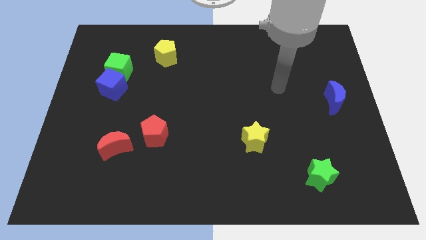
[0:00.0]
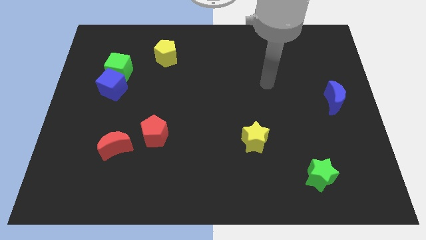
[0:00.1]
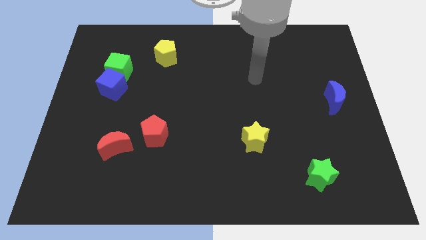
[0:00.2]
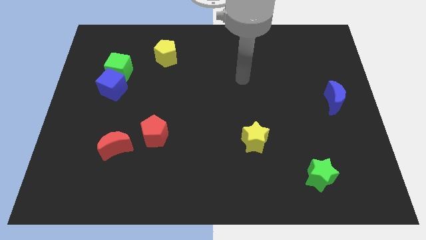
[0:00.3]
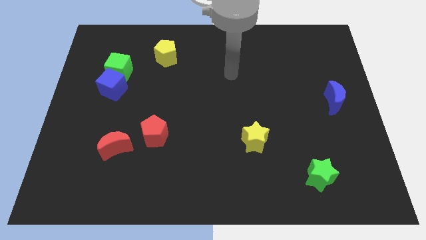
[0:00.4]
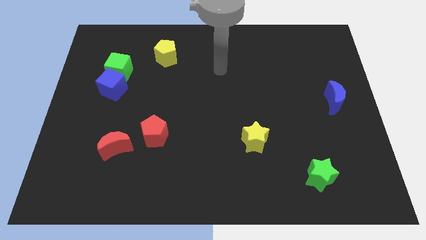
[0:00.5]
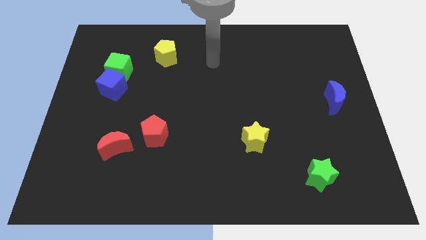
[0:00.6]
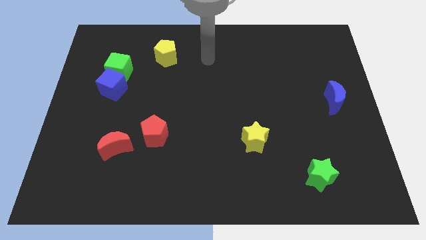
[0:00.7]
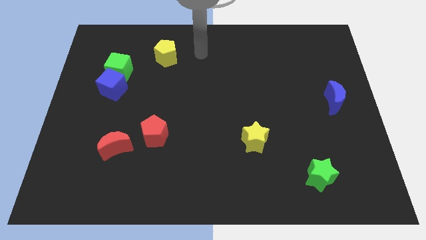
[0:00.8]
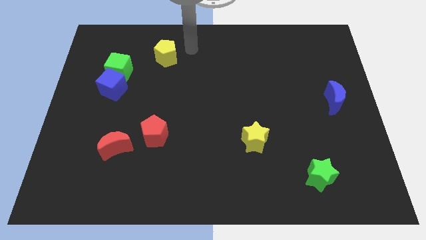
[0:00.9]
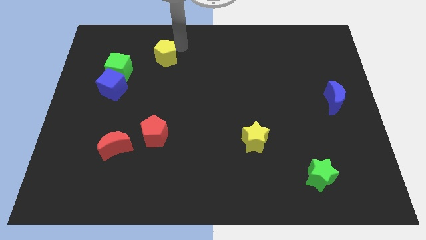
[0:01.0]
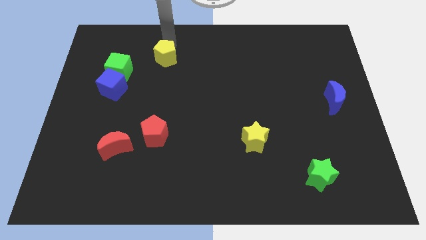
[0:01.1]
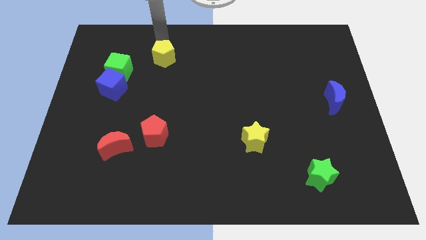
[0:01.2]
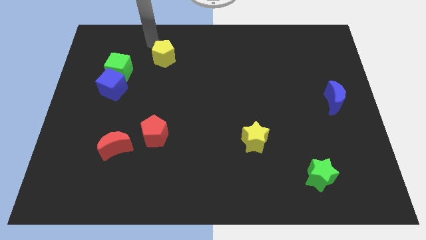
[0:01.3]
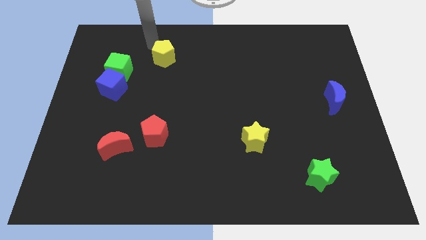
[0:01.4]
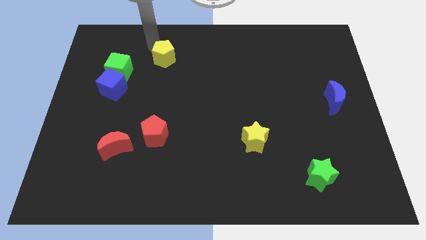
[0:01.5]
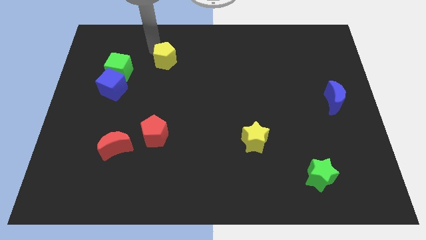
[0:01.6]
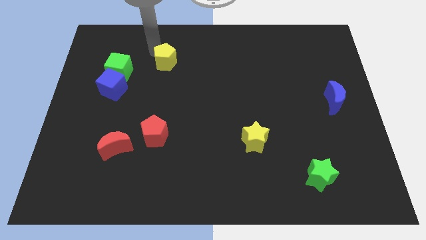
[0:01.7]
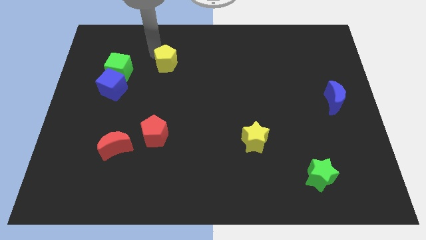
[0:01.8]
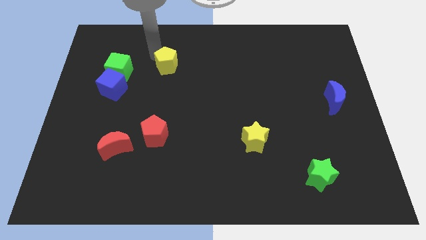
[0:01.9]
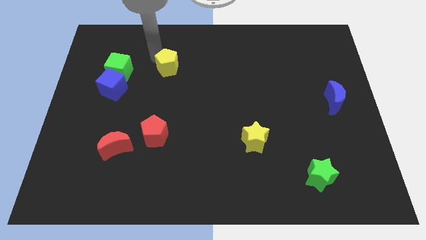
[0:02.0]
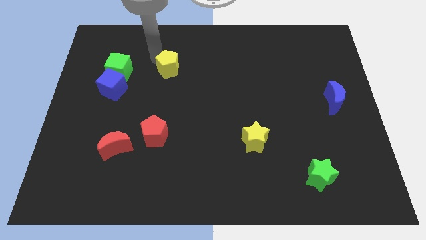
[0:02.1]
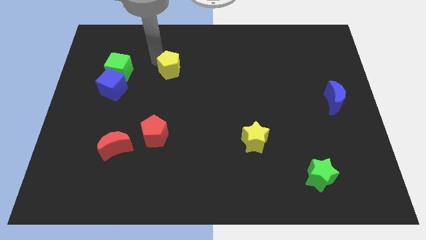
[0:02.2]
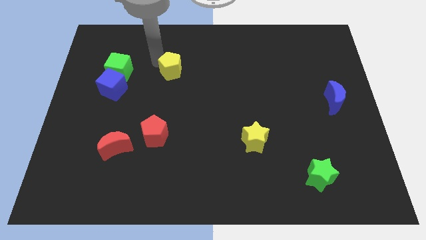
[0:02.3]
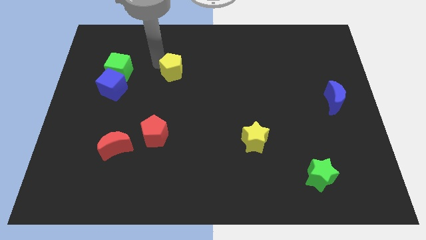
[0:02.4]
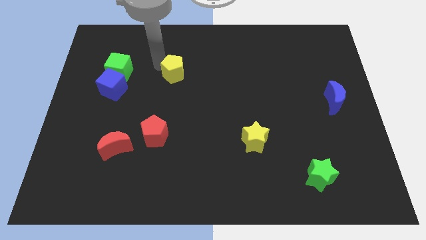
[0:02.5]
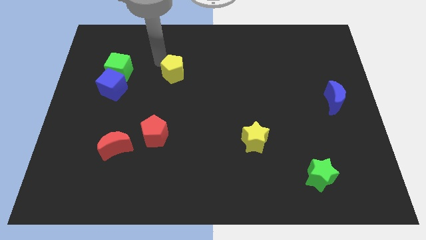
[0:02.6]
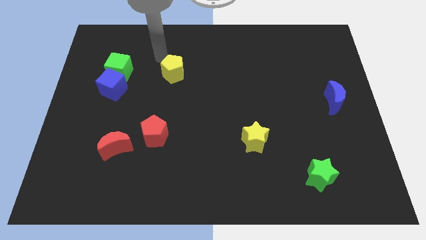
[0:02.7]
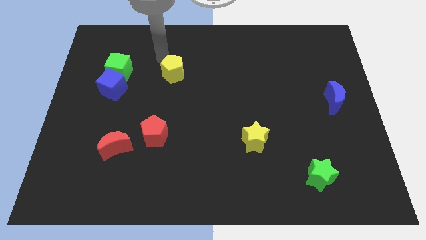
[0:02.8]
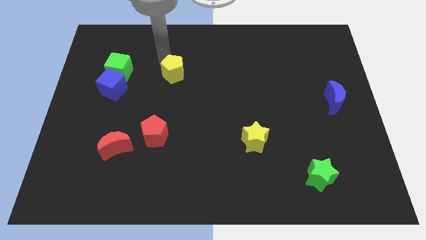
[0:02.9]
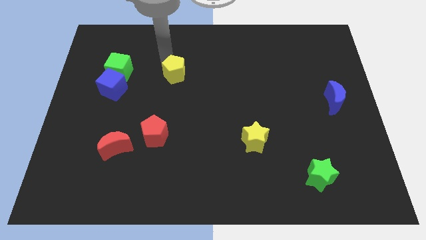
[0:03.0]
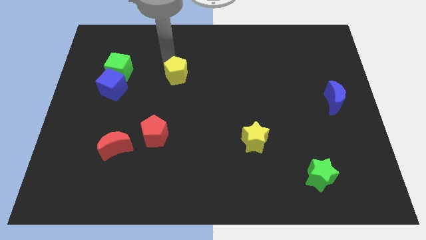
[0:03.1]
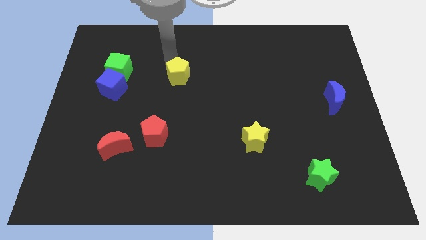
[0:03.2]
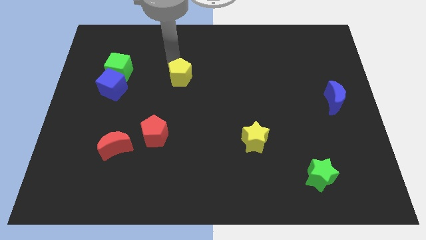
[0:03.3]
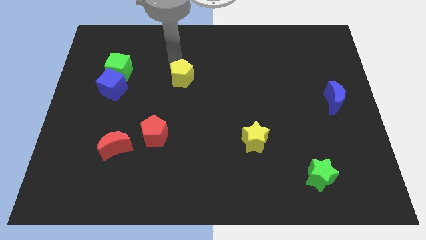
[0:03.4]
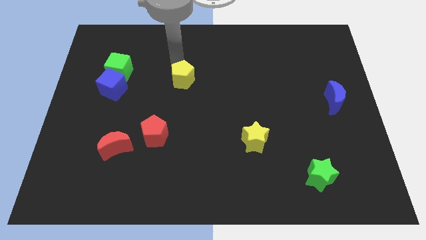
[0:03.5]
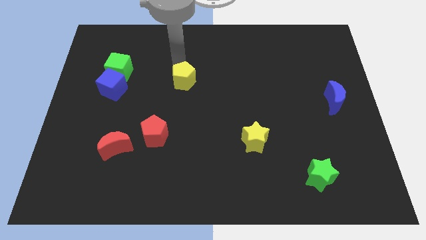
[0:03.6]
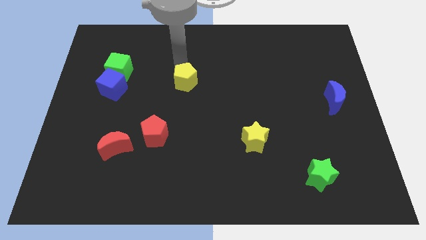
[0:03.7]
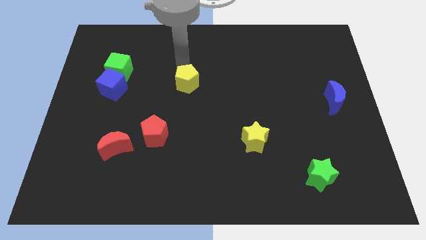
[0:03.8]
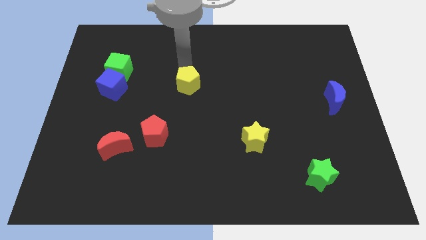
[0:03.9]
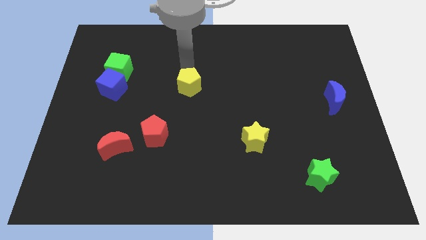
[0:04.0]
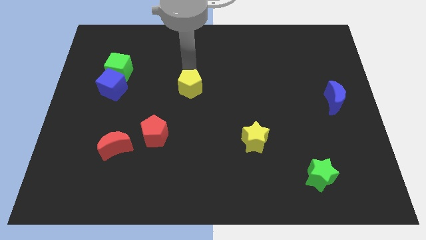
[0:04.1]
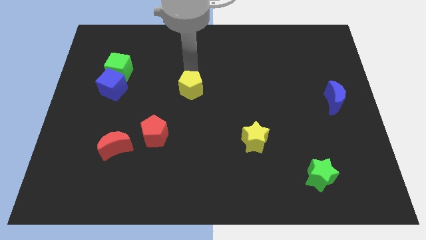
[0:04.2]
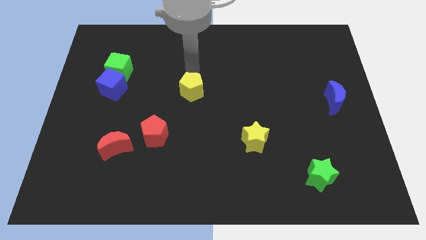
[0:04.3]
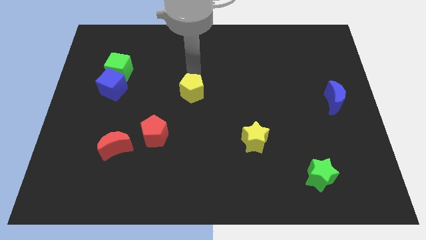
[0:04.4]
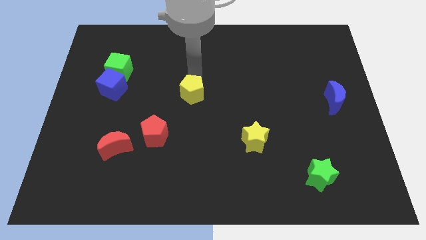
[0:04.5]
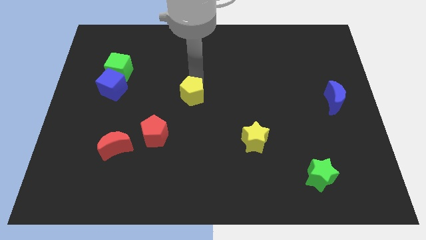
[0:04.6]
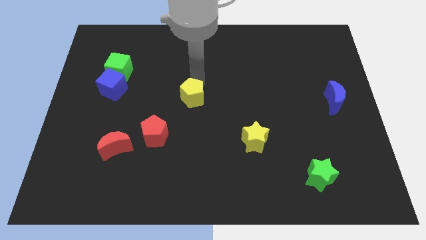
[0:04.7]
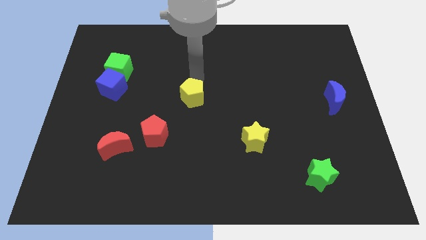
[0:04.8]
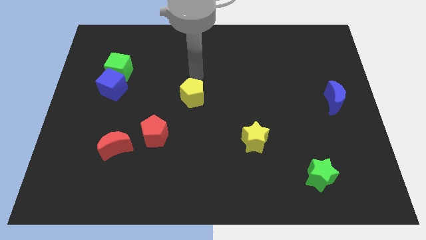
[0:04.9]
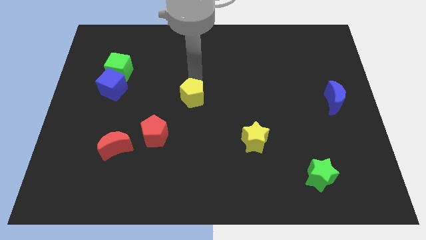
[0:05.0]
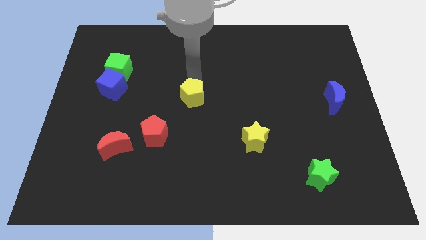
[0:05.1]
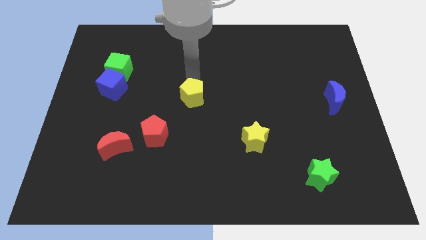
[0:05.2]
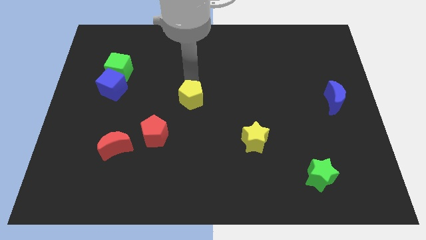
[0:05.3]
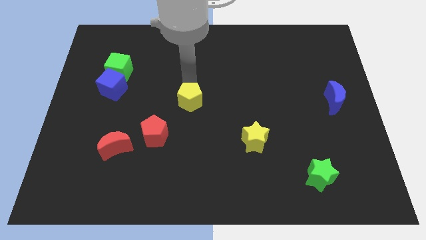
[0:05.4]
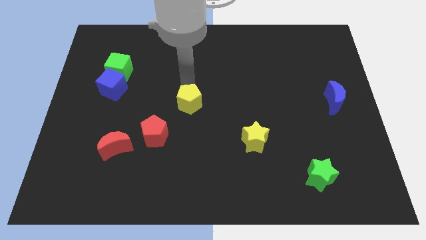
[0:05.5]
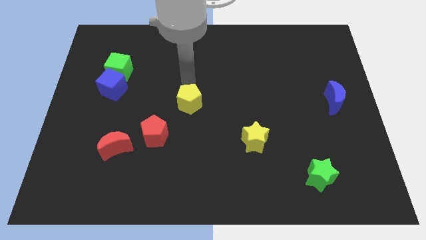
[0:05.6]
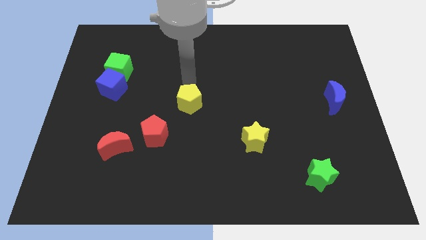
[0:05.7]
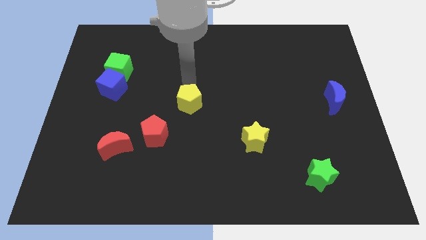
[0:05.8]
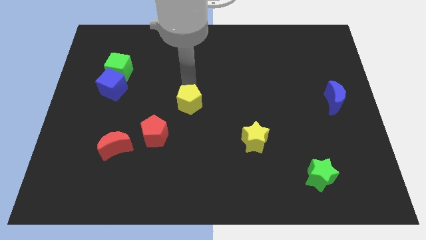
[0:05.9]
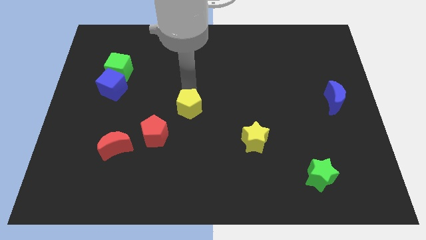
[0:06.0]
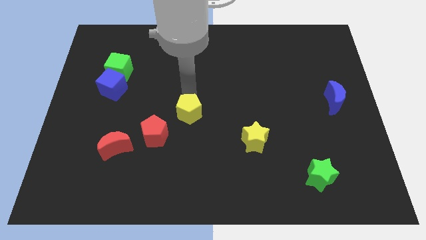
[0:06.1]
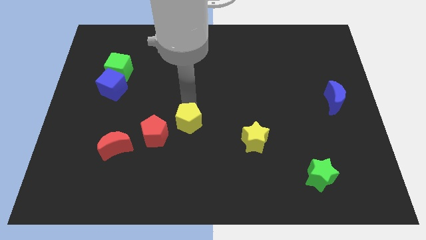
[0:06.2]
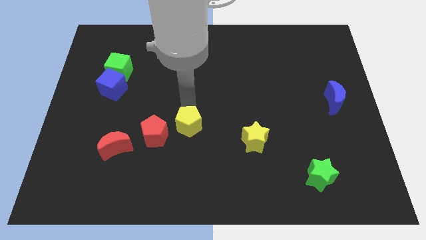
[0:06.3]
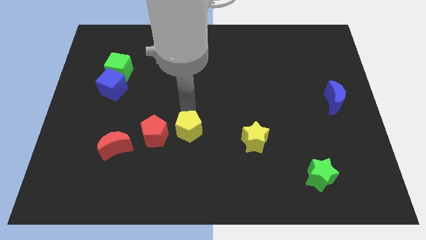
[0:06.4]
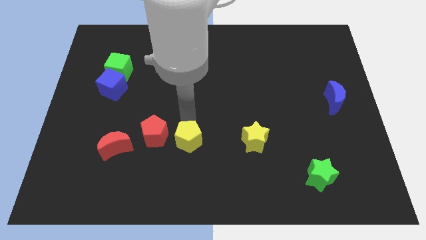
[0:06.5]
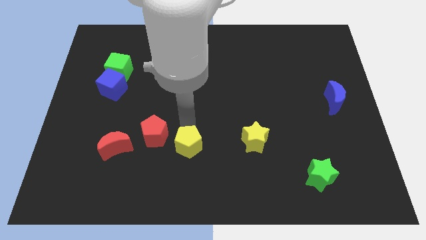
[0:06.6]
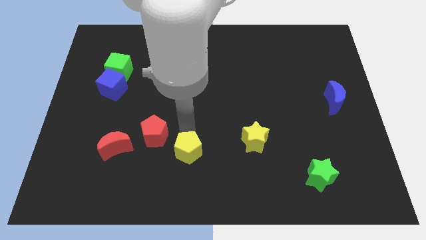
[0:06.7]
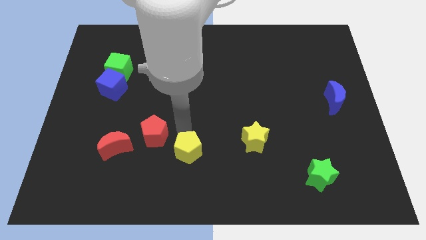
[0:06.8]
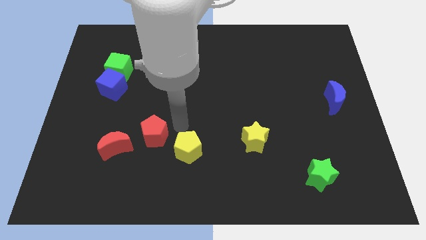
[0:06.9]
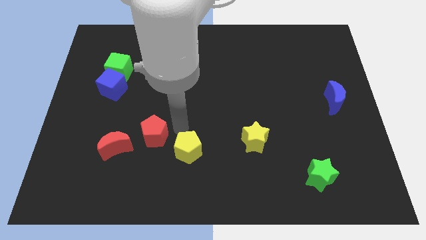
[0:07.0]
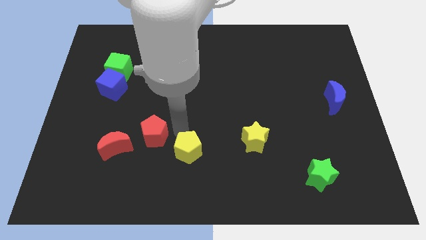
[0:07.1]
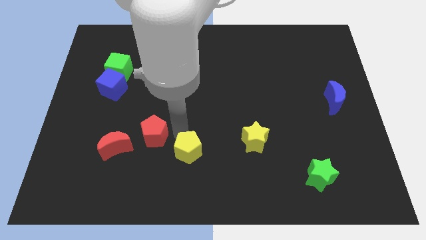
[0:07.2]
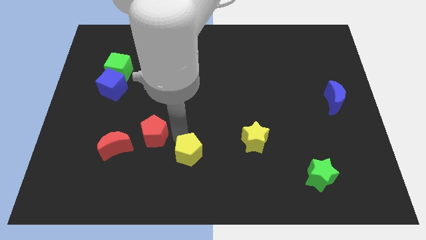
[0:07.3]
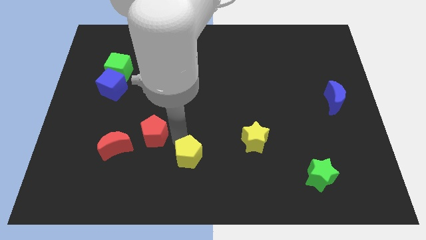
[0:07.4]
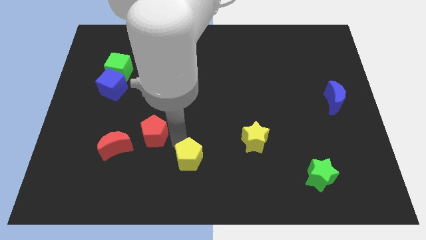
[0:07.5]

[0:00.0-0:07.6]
put the yellow pentagon to the bottom side
